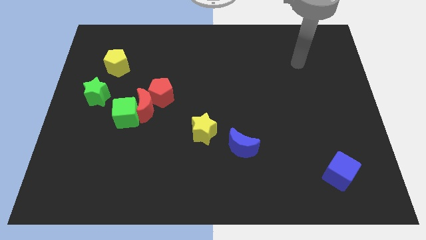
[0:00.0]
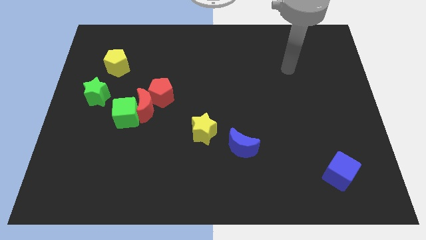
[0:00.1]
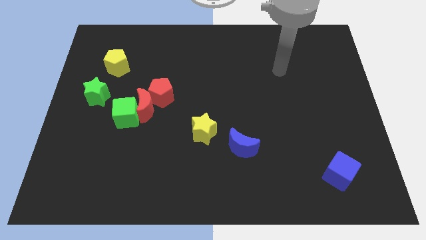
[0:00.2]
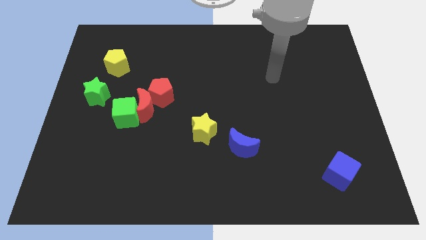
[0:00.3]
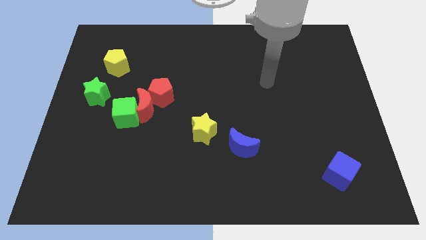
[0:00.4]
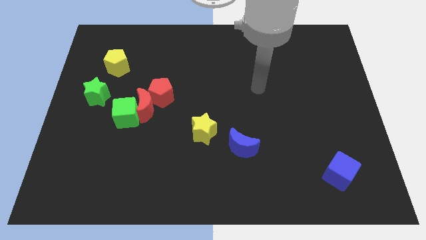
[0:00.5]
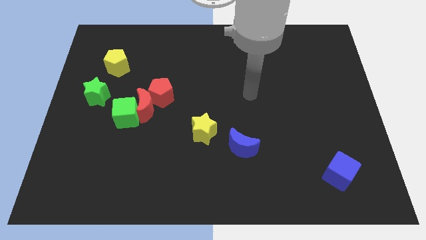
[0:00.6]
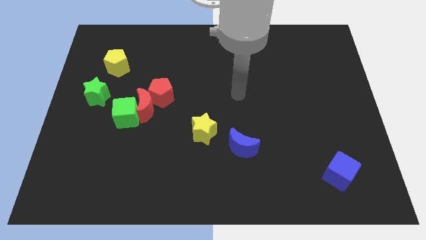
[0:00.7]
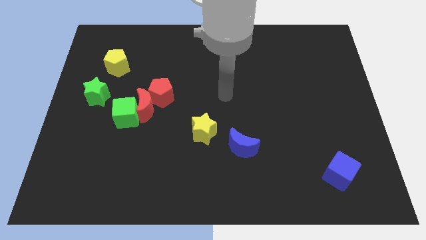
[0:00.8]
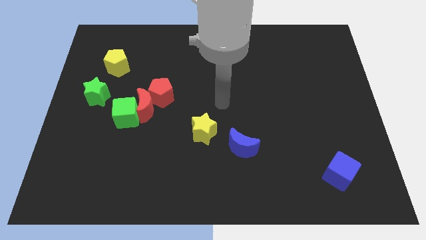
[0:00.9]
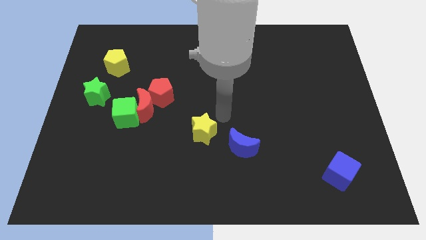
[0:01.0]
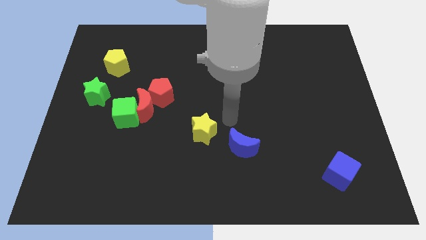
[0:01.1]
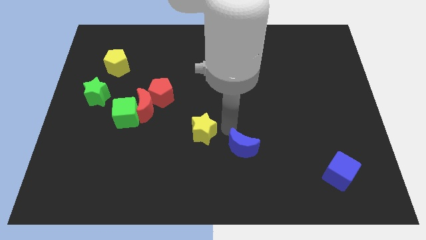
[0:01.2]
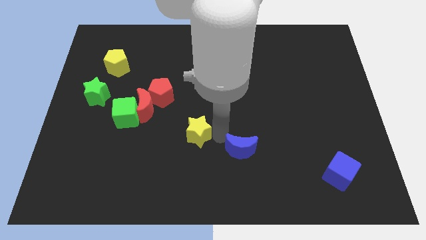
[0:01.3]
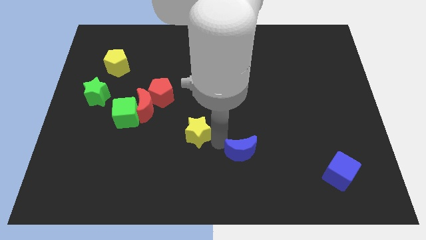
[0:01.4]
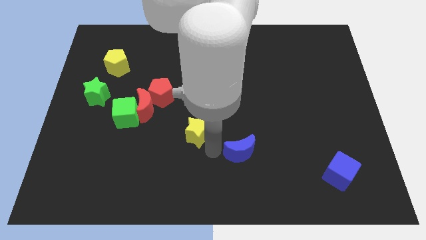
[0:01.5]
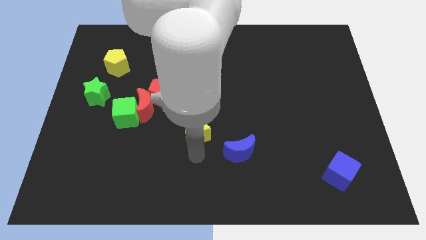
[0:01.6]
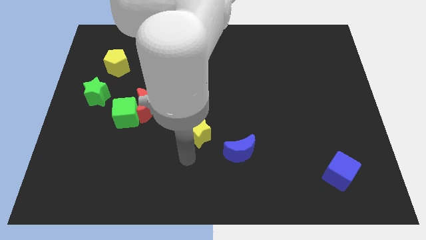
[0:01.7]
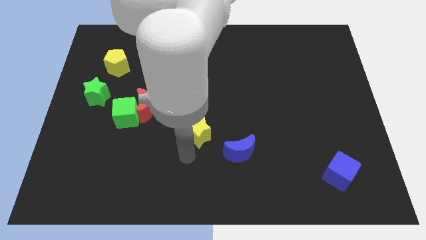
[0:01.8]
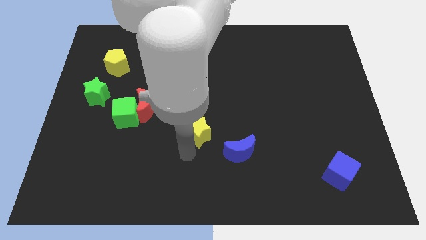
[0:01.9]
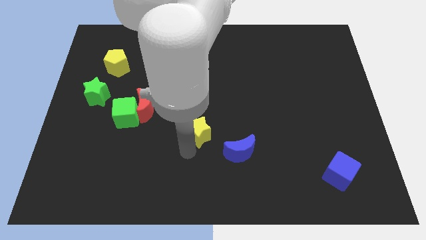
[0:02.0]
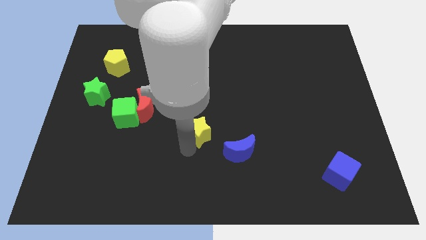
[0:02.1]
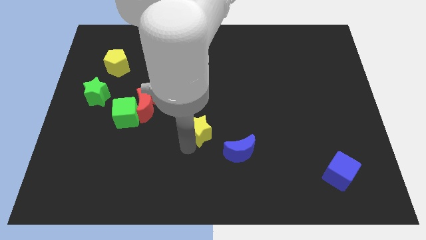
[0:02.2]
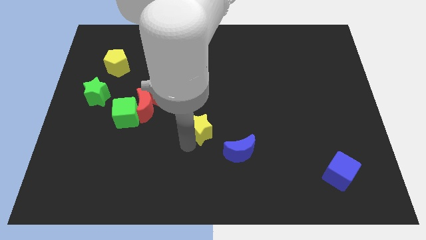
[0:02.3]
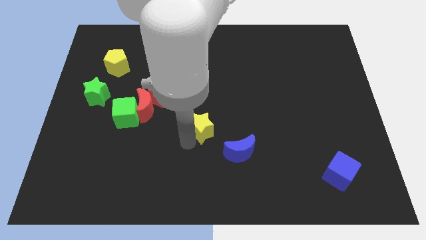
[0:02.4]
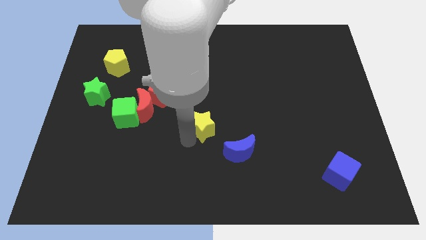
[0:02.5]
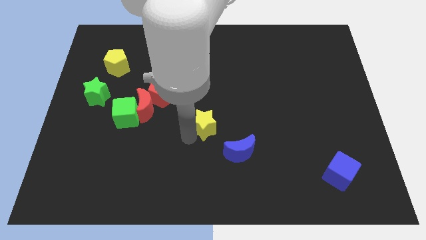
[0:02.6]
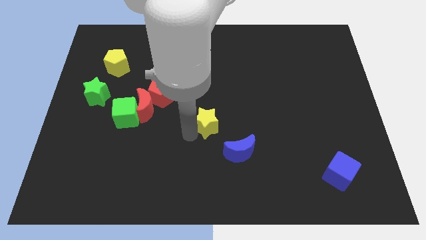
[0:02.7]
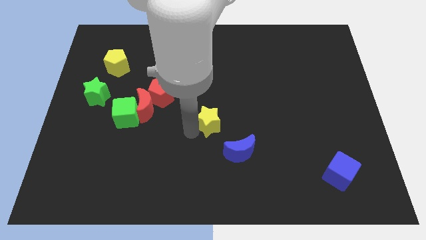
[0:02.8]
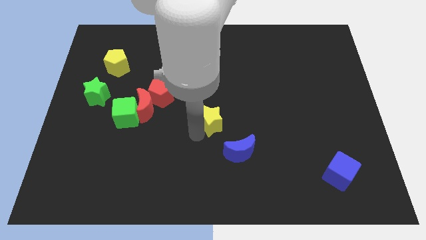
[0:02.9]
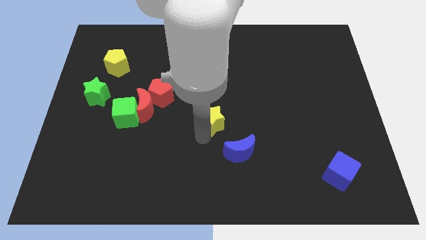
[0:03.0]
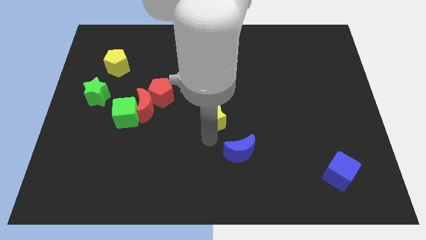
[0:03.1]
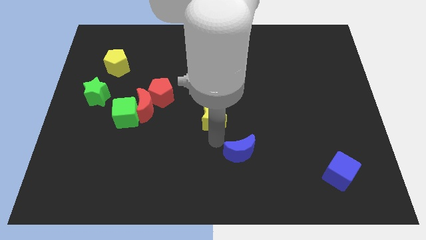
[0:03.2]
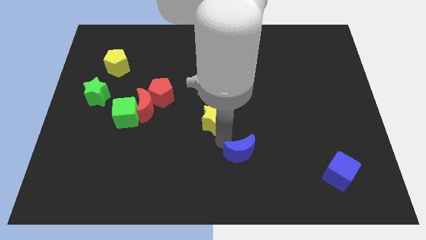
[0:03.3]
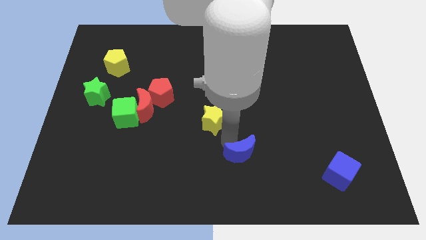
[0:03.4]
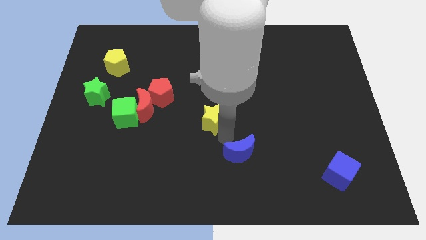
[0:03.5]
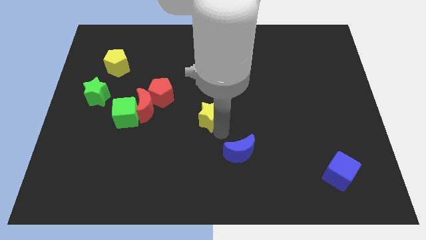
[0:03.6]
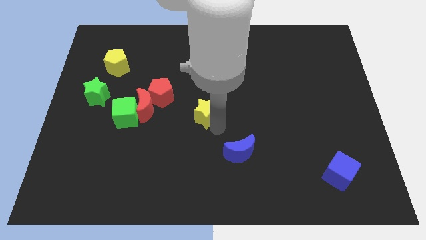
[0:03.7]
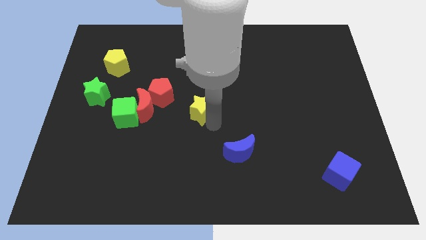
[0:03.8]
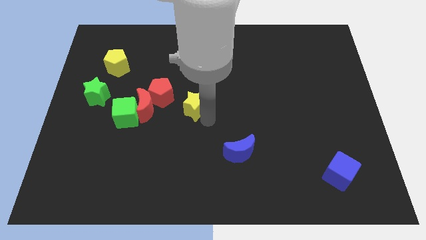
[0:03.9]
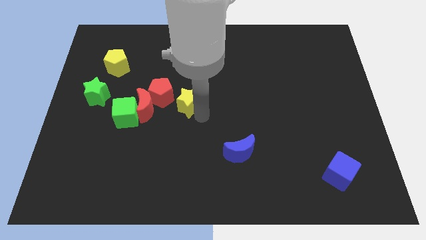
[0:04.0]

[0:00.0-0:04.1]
push the yellow star slightly up and then left

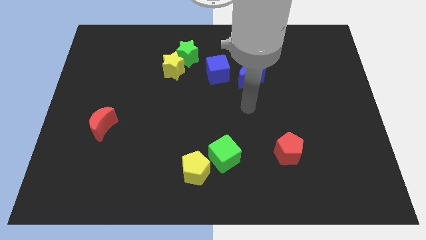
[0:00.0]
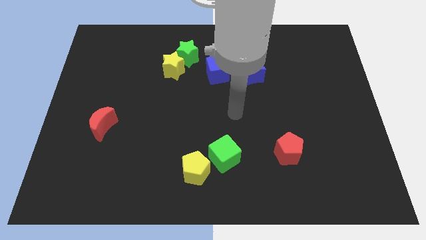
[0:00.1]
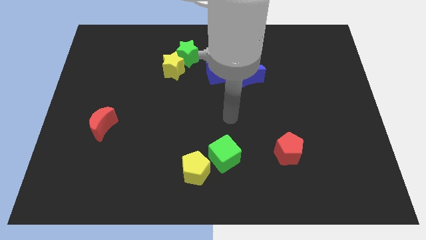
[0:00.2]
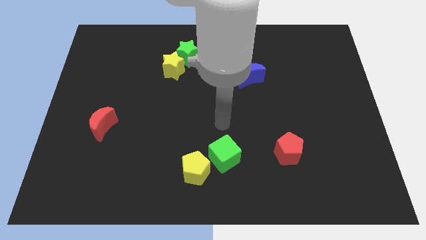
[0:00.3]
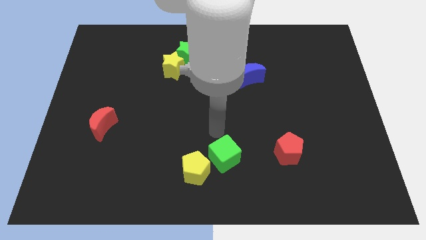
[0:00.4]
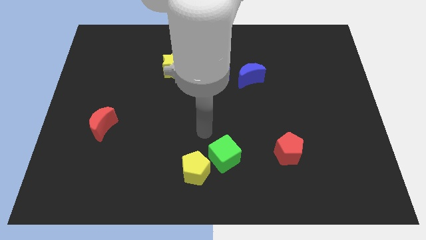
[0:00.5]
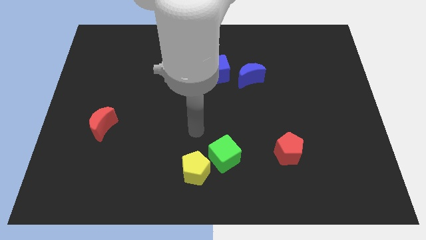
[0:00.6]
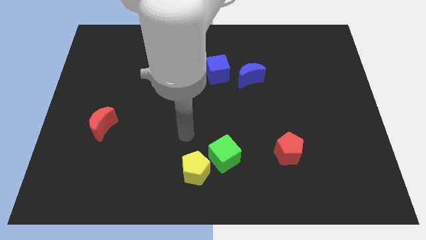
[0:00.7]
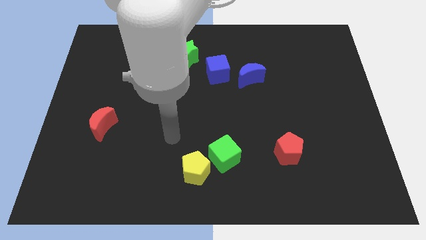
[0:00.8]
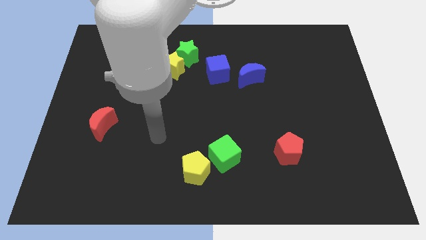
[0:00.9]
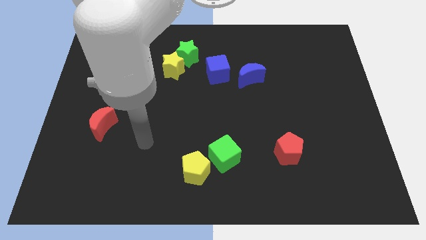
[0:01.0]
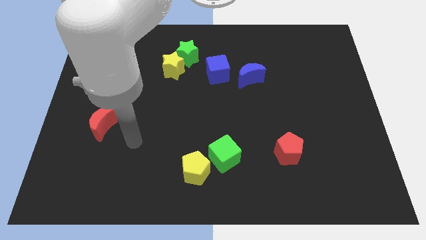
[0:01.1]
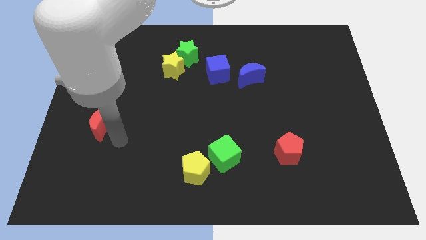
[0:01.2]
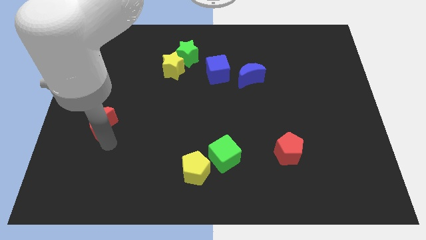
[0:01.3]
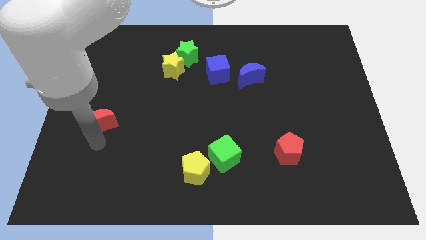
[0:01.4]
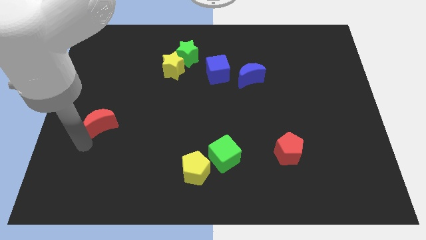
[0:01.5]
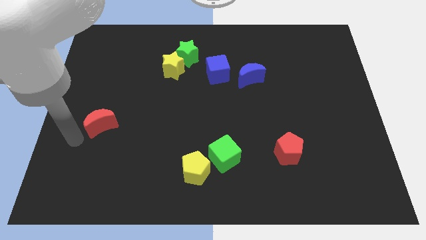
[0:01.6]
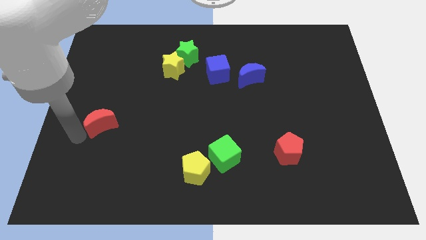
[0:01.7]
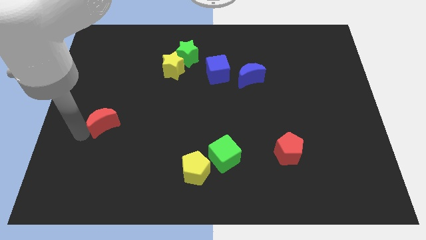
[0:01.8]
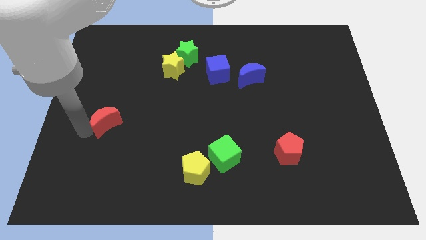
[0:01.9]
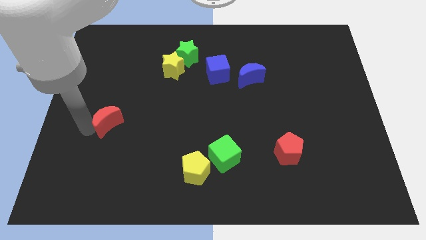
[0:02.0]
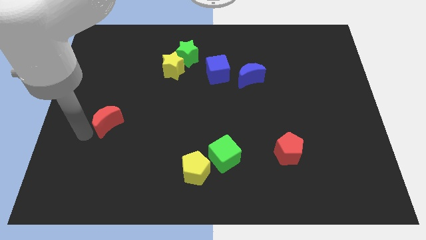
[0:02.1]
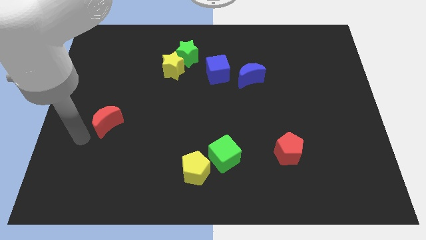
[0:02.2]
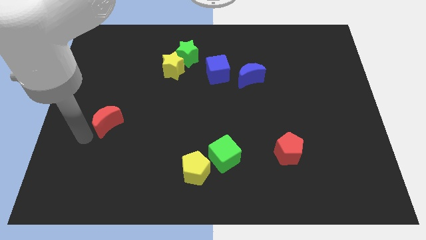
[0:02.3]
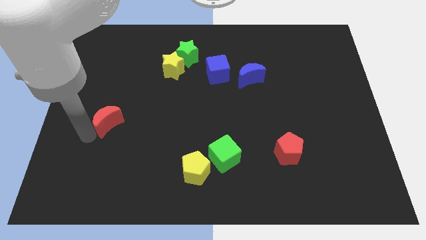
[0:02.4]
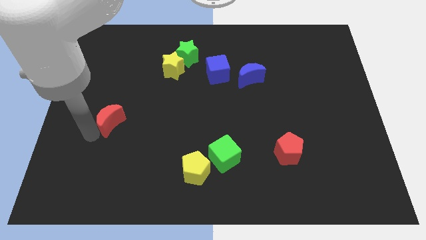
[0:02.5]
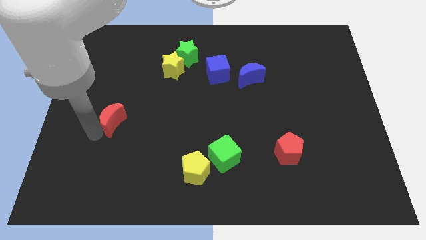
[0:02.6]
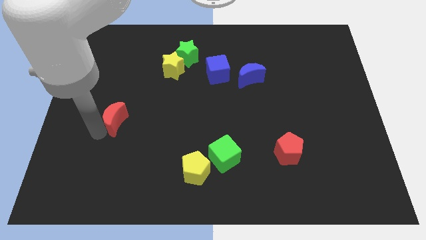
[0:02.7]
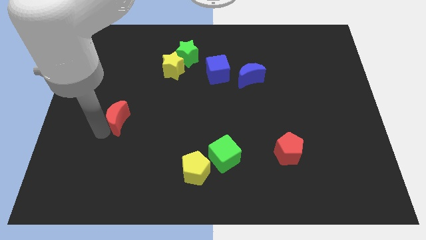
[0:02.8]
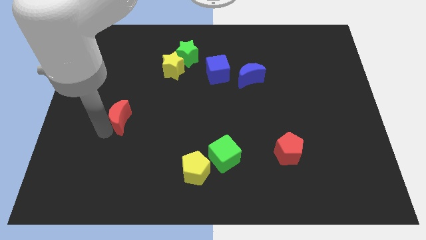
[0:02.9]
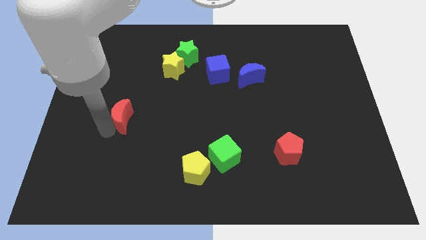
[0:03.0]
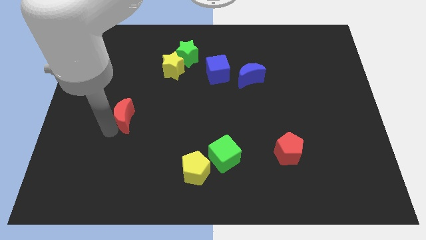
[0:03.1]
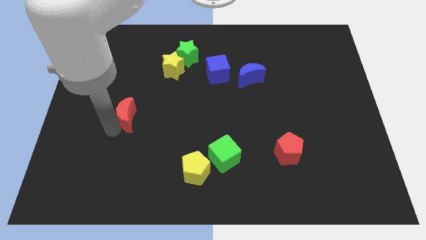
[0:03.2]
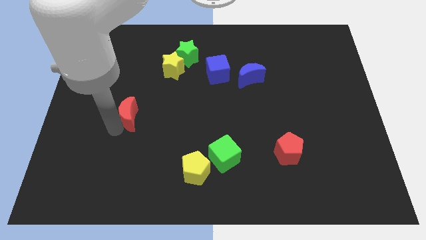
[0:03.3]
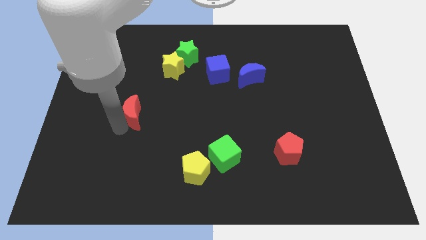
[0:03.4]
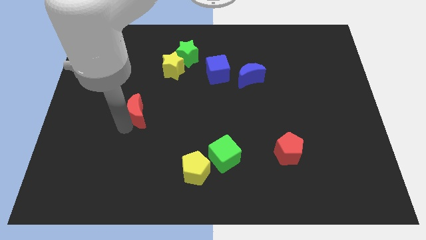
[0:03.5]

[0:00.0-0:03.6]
push the red moon slightly upwards and right

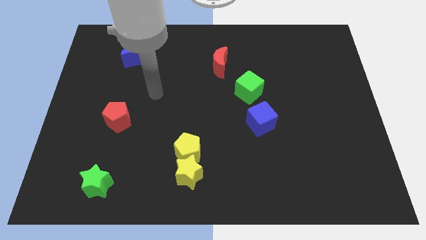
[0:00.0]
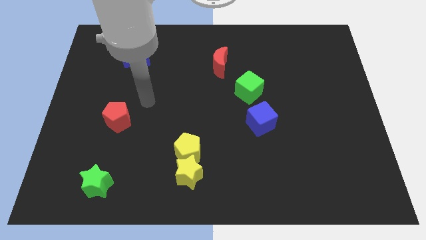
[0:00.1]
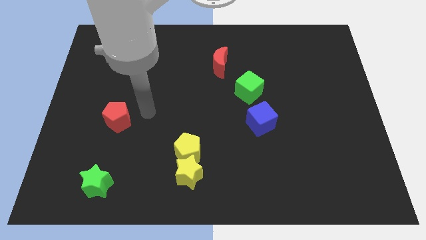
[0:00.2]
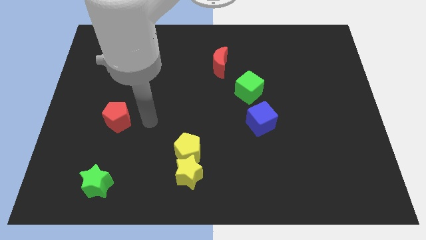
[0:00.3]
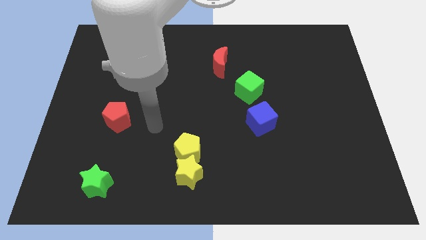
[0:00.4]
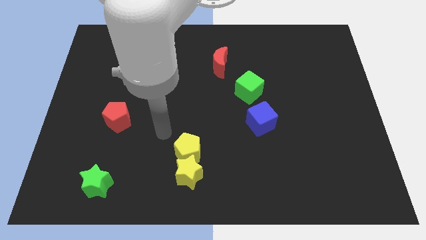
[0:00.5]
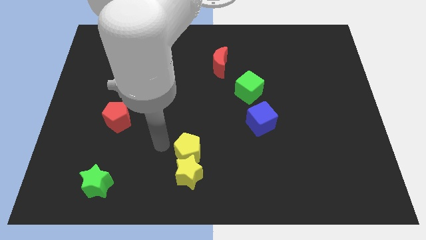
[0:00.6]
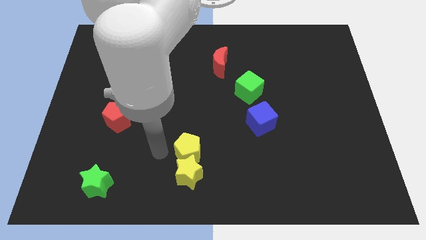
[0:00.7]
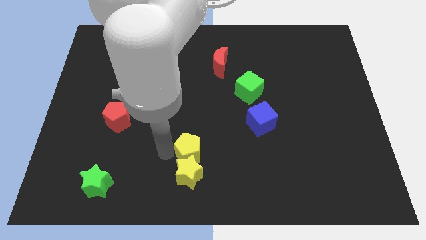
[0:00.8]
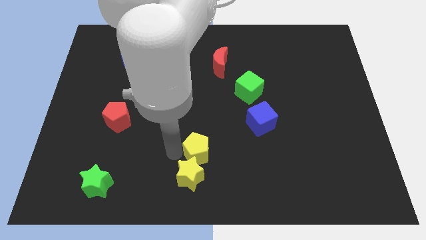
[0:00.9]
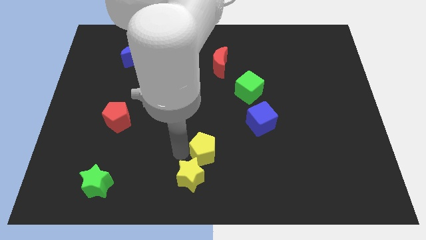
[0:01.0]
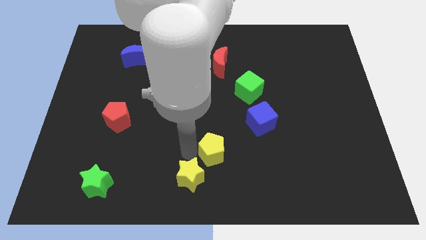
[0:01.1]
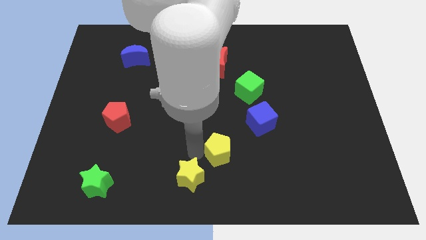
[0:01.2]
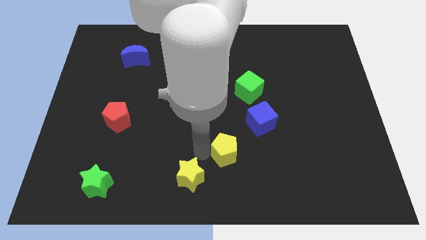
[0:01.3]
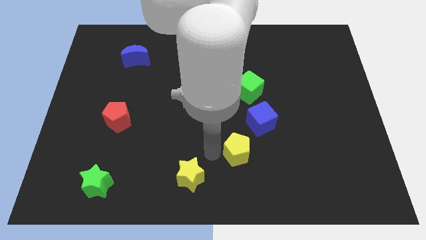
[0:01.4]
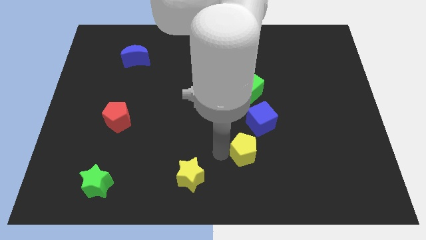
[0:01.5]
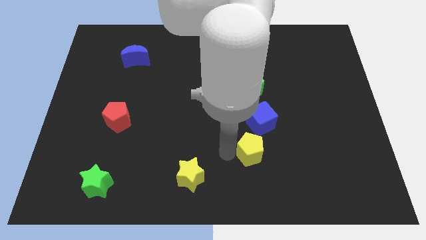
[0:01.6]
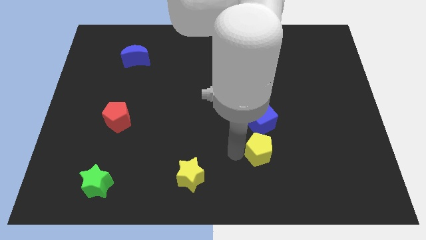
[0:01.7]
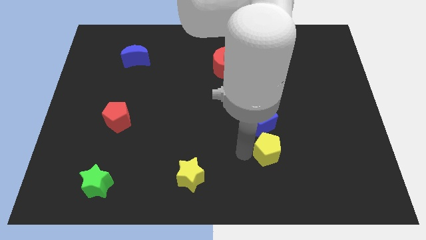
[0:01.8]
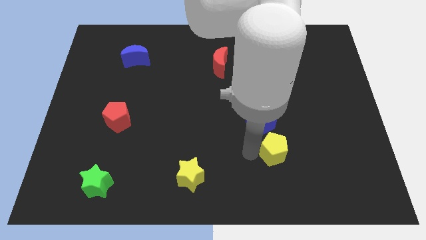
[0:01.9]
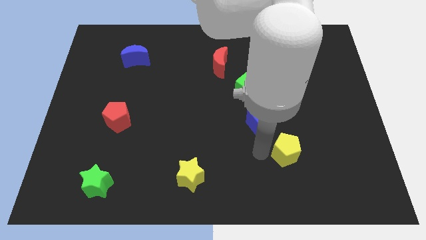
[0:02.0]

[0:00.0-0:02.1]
push the yellow pentagon to the right
